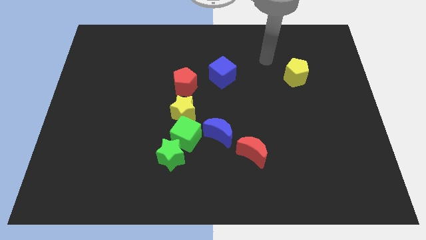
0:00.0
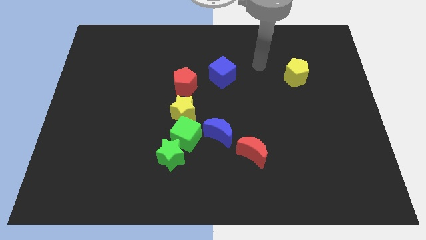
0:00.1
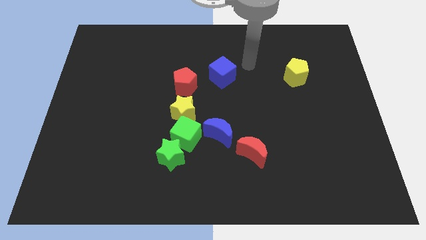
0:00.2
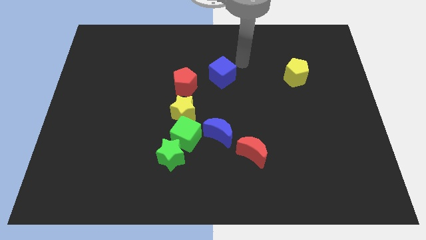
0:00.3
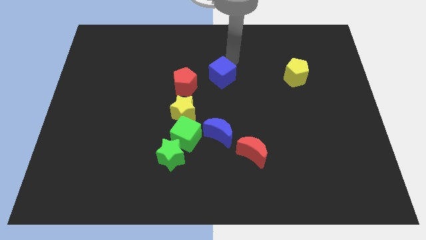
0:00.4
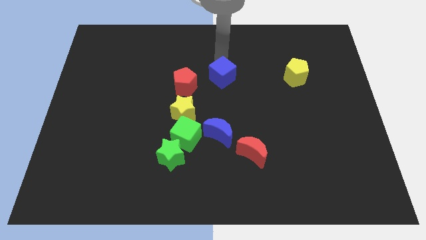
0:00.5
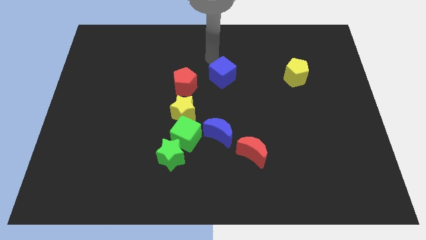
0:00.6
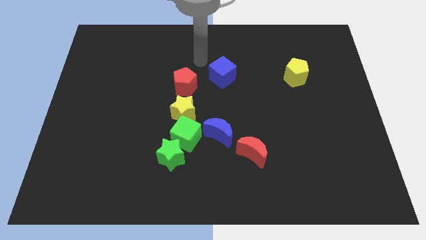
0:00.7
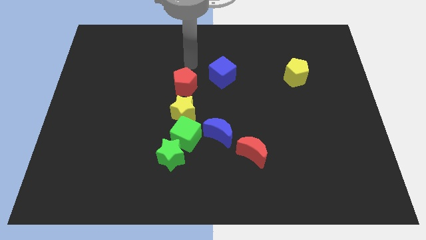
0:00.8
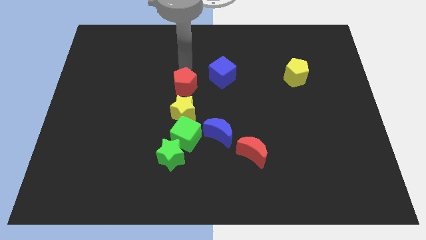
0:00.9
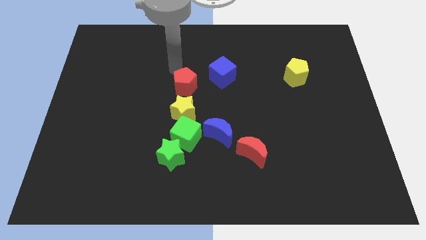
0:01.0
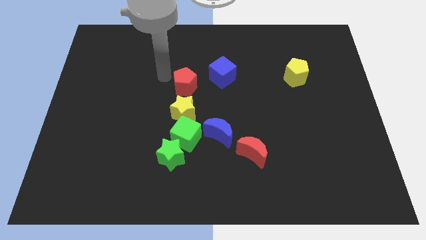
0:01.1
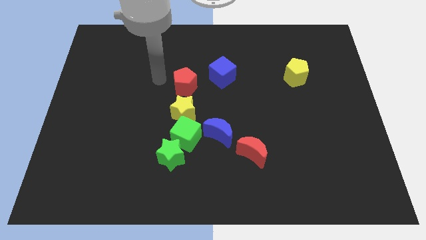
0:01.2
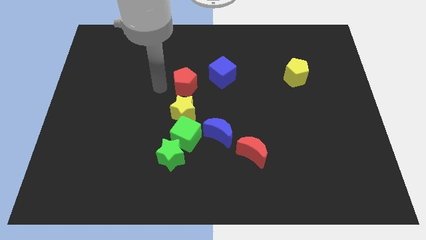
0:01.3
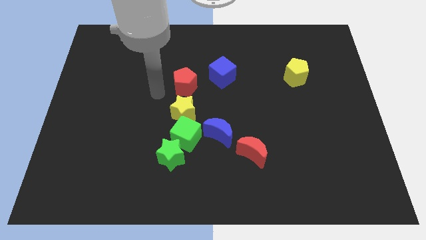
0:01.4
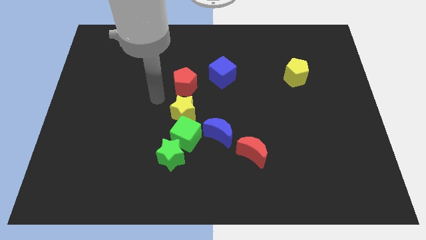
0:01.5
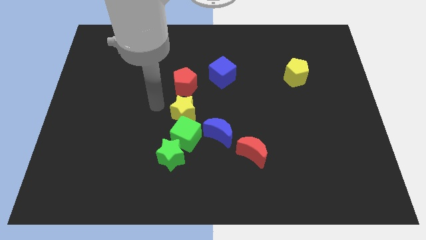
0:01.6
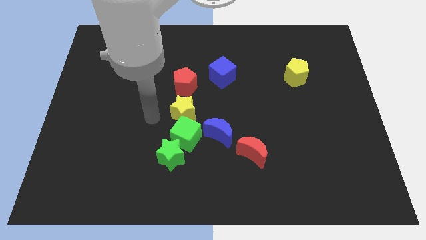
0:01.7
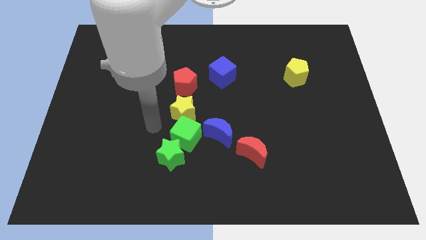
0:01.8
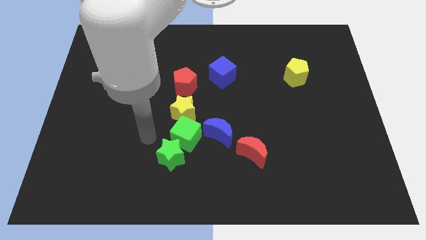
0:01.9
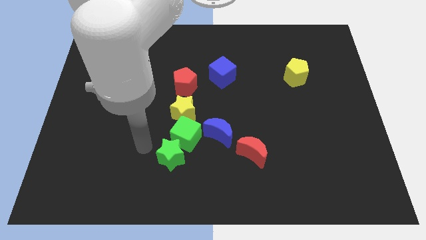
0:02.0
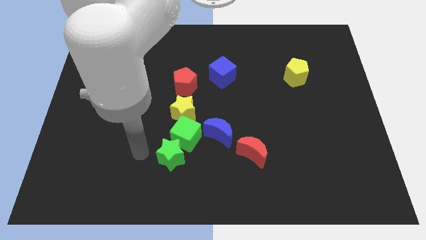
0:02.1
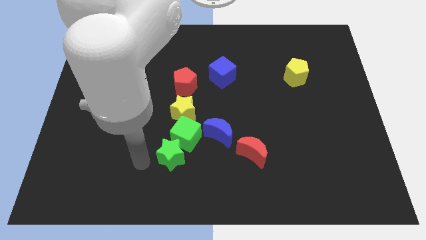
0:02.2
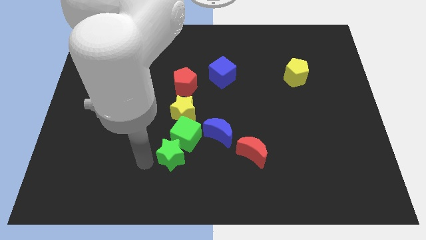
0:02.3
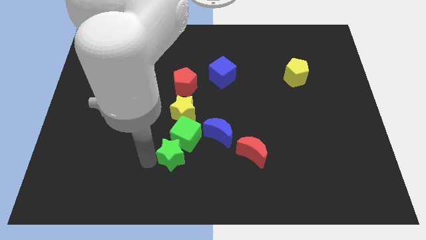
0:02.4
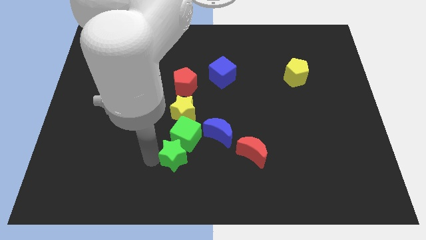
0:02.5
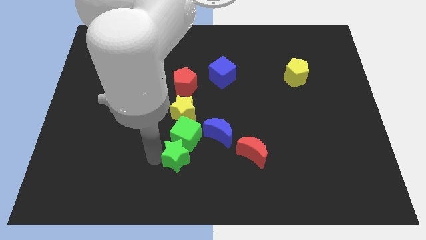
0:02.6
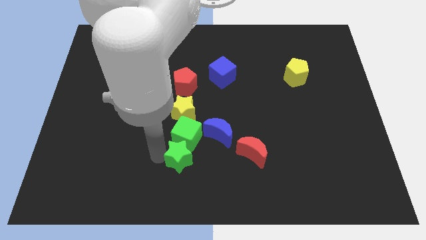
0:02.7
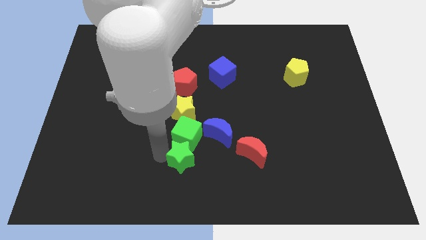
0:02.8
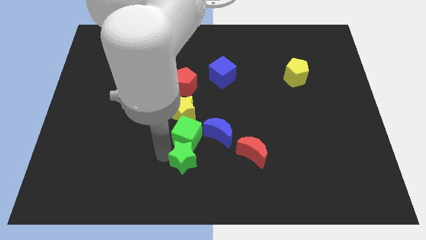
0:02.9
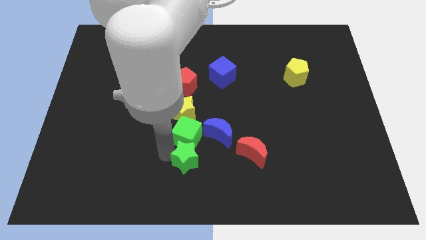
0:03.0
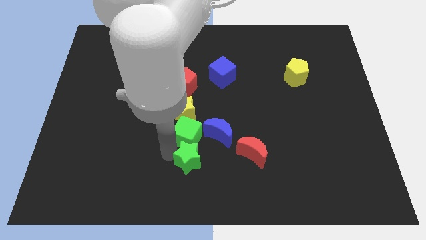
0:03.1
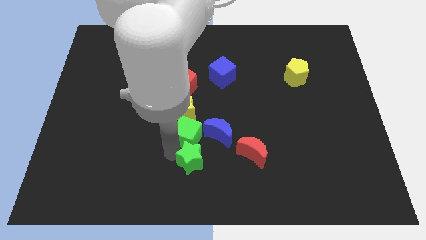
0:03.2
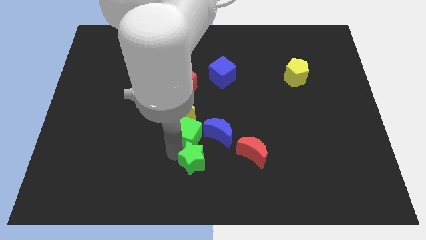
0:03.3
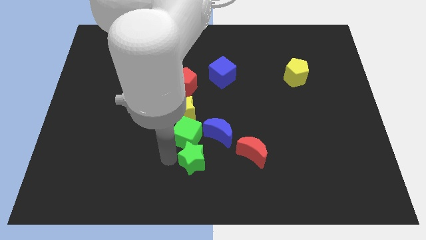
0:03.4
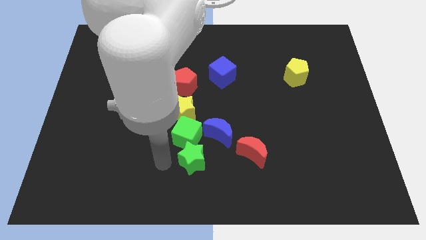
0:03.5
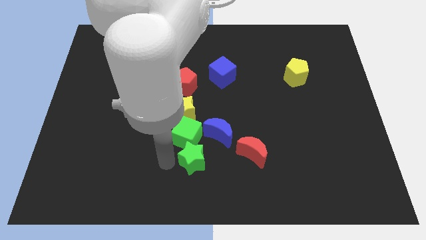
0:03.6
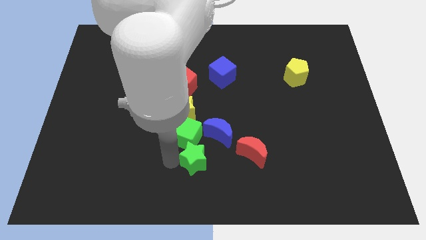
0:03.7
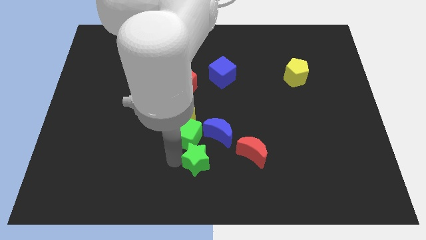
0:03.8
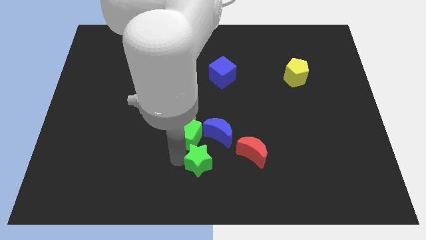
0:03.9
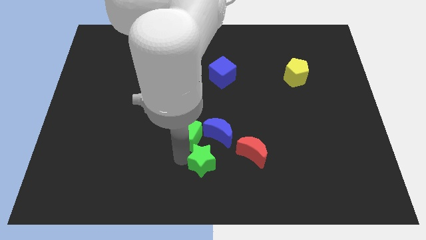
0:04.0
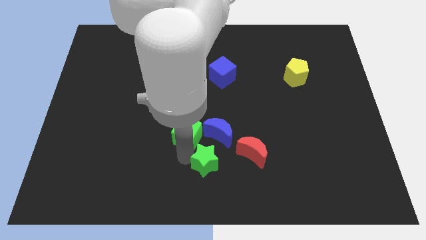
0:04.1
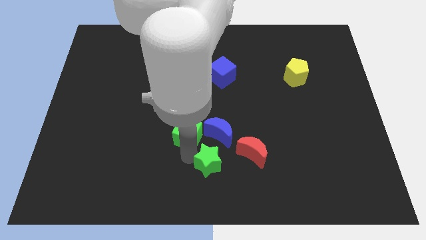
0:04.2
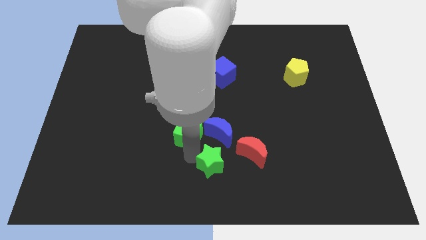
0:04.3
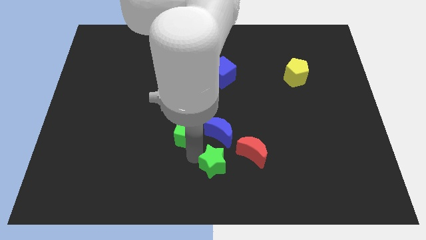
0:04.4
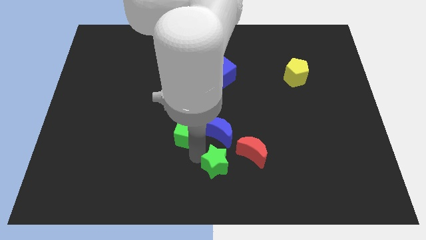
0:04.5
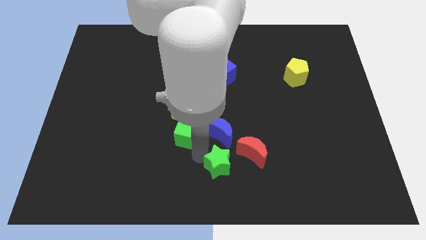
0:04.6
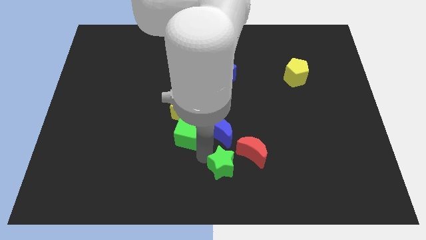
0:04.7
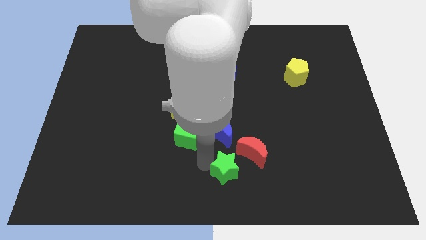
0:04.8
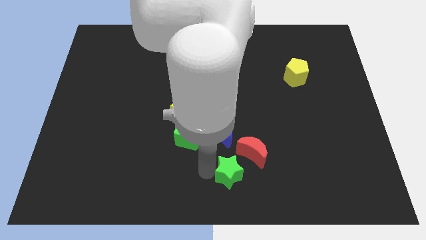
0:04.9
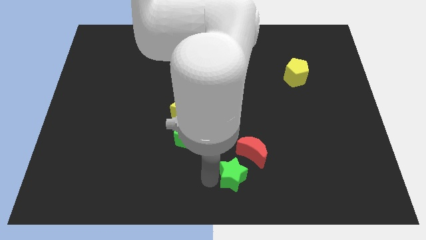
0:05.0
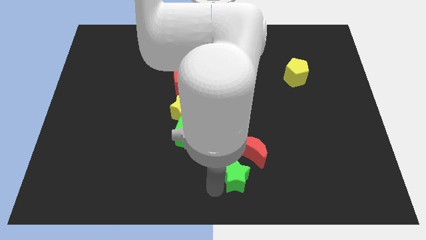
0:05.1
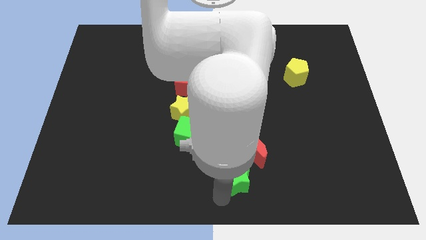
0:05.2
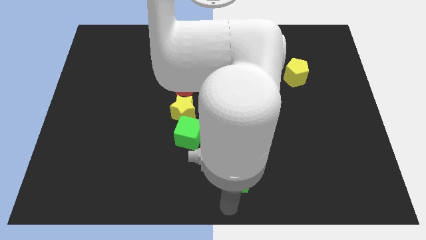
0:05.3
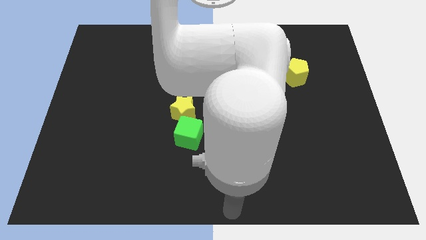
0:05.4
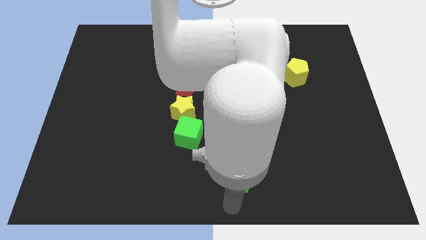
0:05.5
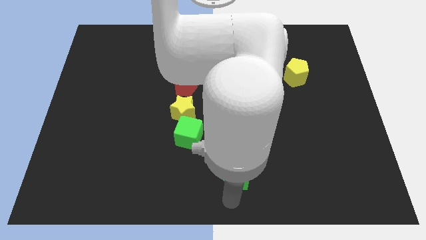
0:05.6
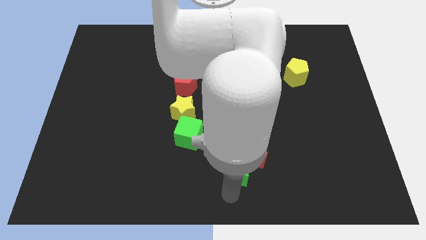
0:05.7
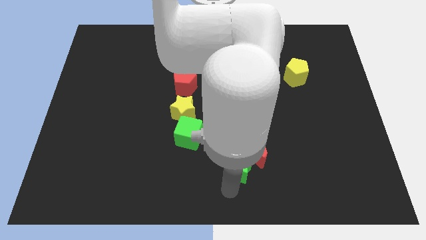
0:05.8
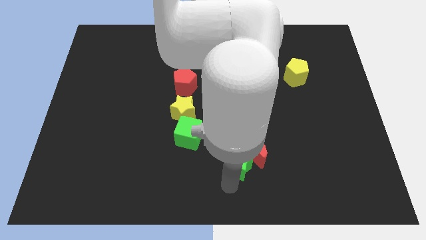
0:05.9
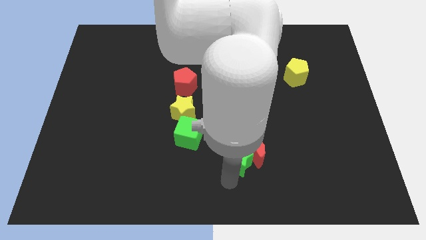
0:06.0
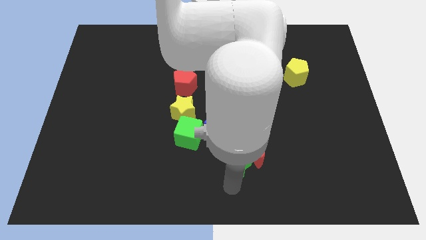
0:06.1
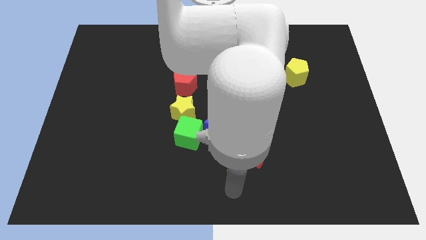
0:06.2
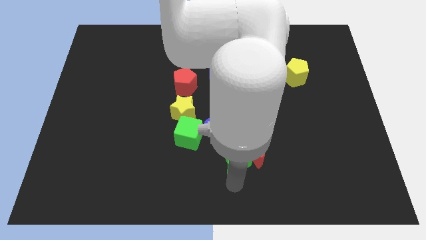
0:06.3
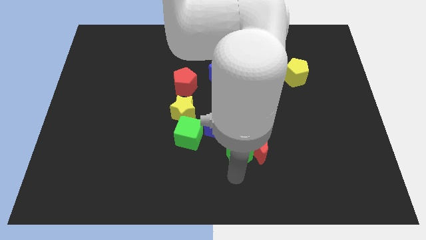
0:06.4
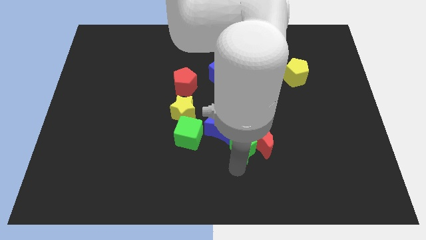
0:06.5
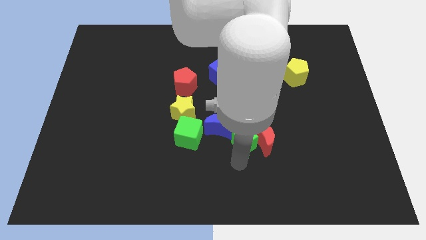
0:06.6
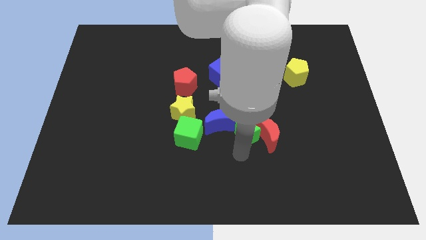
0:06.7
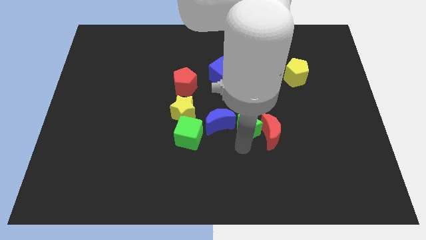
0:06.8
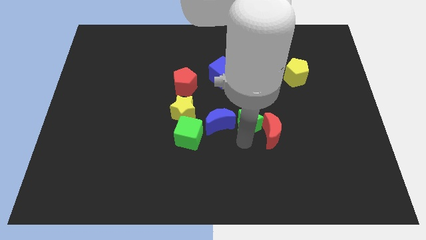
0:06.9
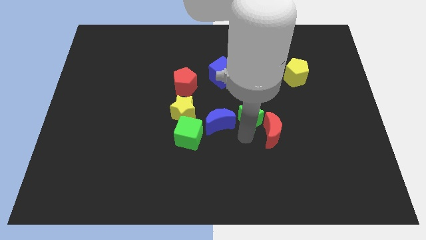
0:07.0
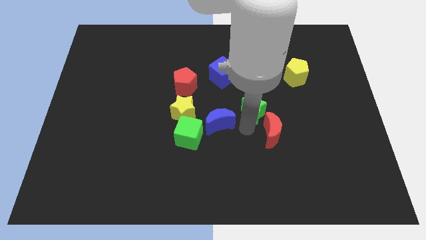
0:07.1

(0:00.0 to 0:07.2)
slide the green star diagonally up and right

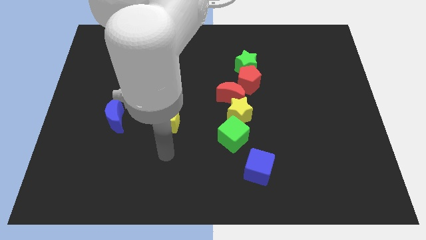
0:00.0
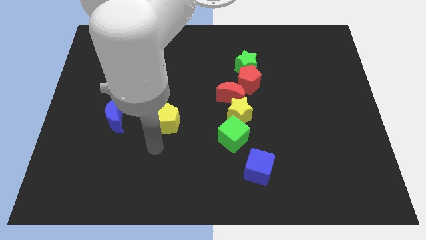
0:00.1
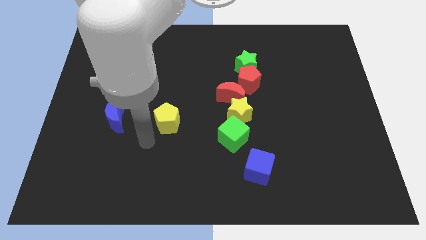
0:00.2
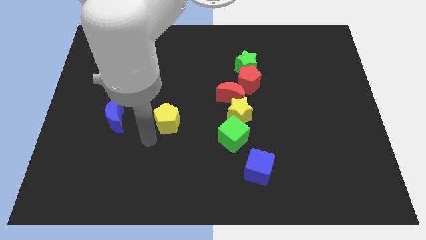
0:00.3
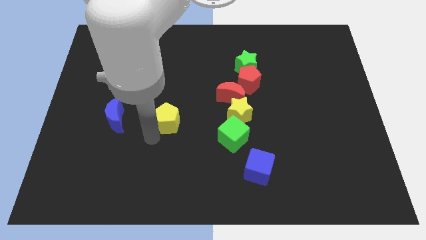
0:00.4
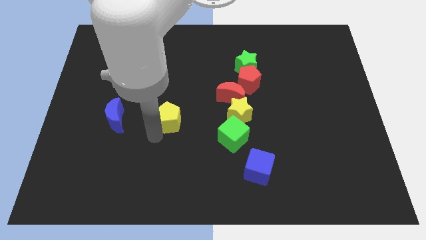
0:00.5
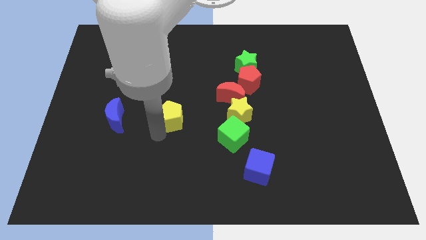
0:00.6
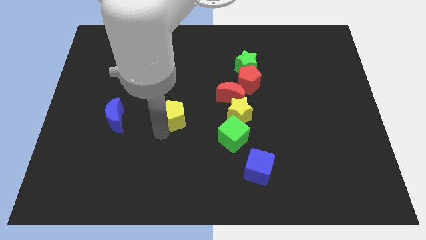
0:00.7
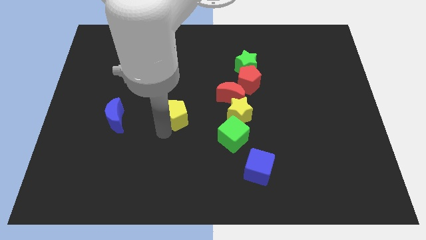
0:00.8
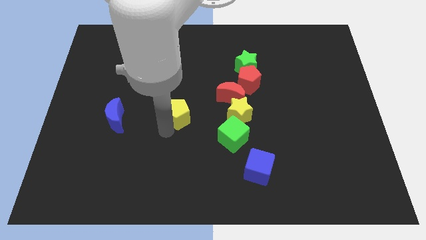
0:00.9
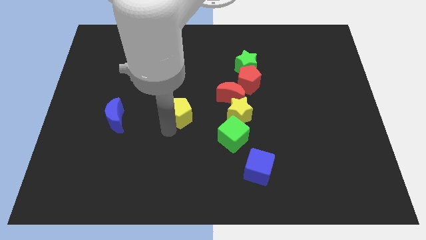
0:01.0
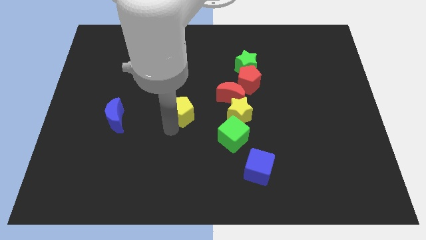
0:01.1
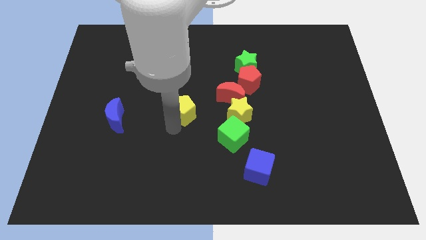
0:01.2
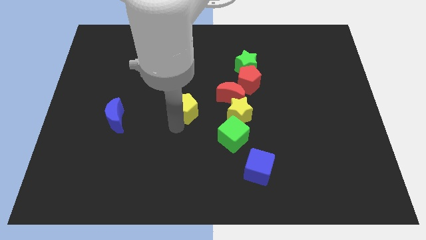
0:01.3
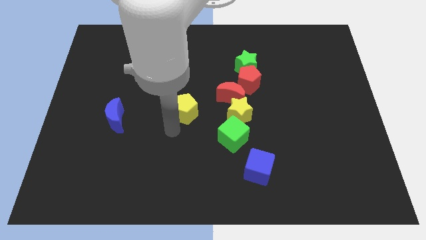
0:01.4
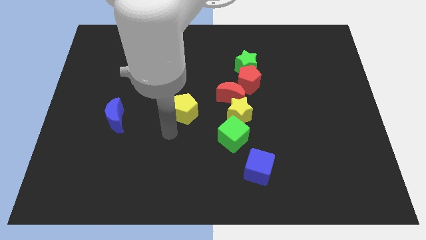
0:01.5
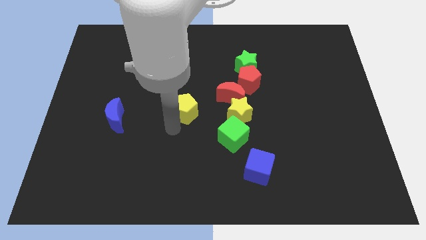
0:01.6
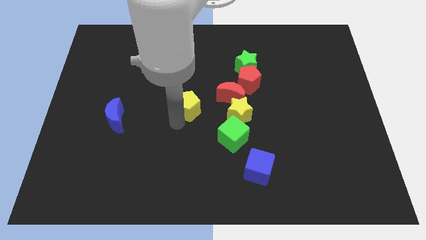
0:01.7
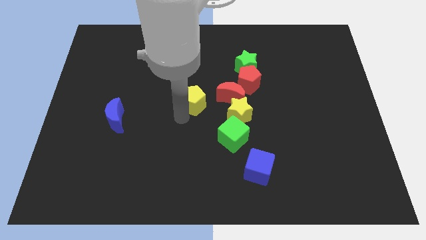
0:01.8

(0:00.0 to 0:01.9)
slightly slide the yellow pentagon diagonally upwards and right
